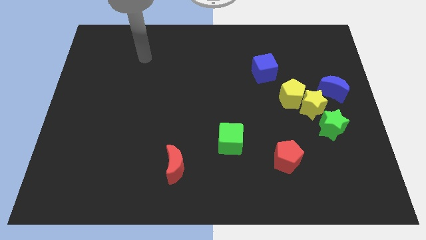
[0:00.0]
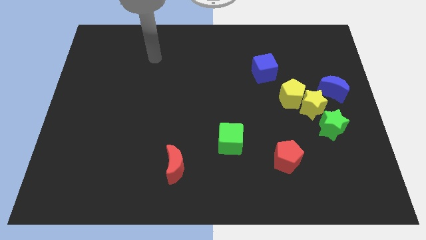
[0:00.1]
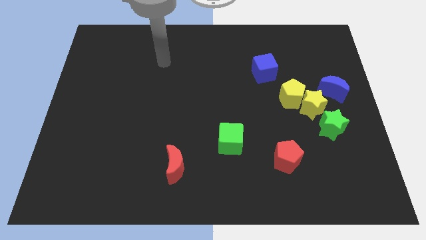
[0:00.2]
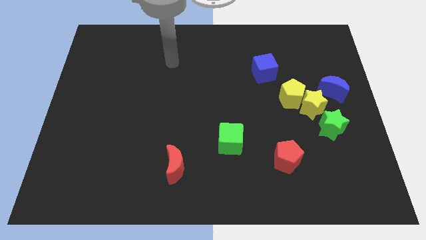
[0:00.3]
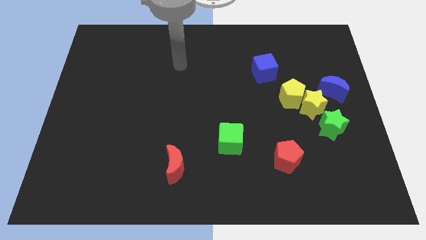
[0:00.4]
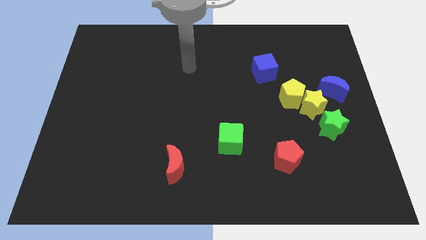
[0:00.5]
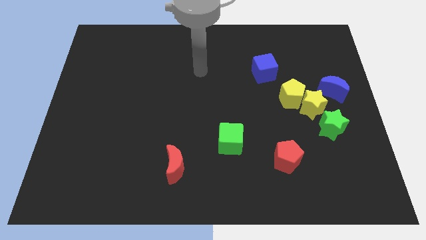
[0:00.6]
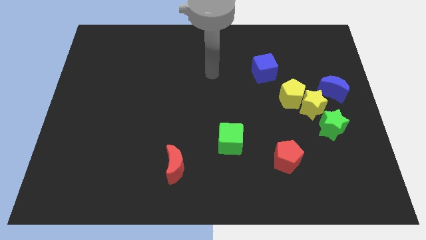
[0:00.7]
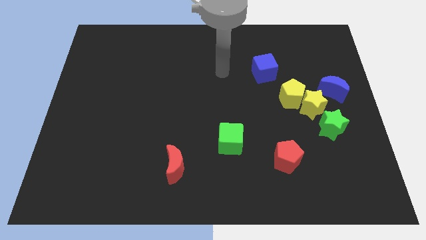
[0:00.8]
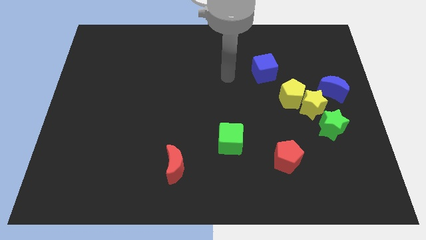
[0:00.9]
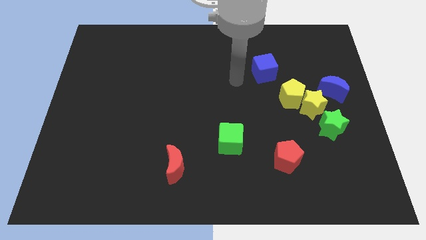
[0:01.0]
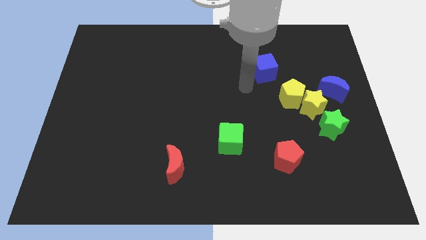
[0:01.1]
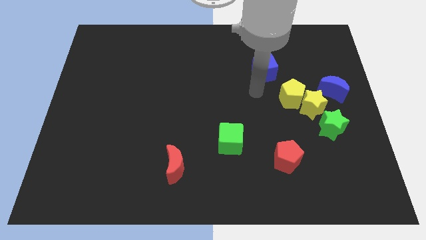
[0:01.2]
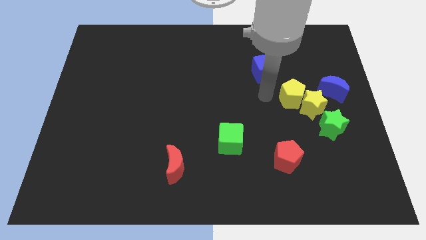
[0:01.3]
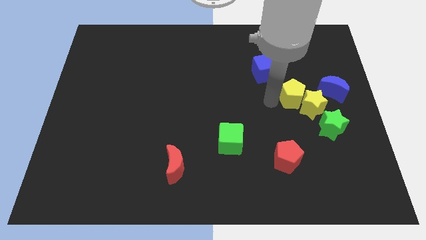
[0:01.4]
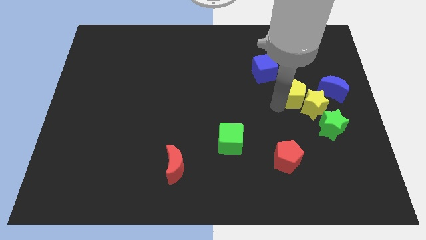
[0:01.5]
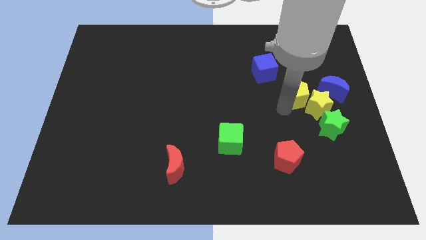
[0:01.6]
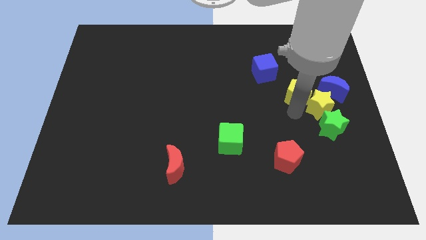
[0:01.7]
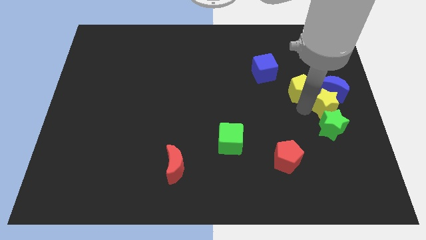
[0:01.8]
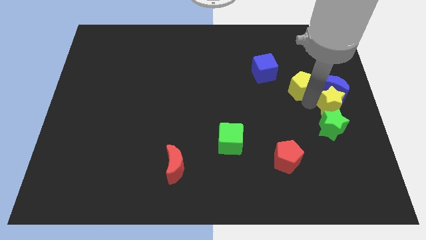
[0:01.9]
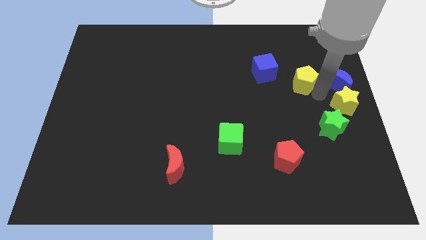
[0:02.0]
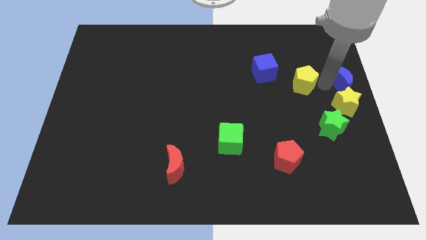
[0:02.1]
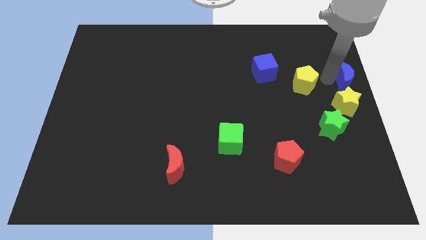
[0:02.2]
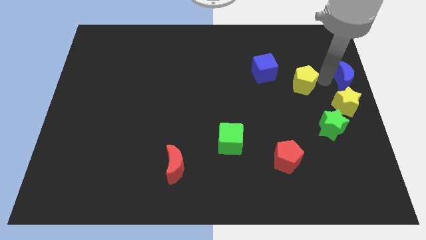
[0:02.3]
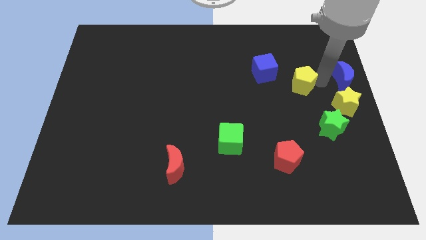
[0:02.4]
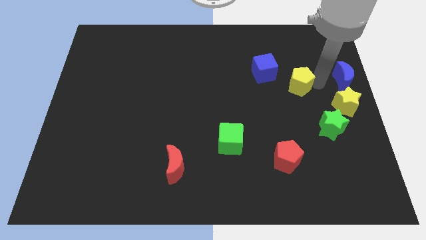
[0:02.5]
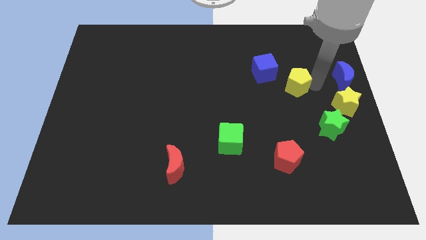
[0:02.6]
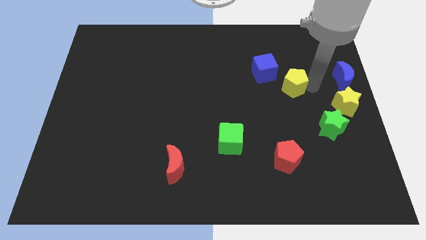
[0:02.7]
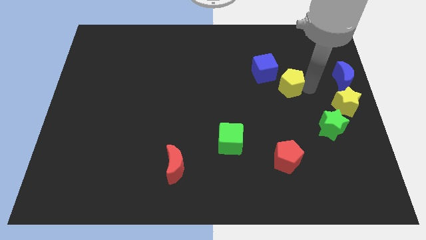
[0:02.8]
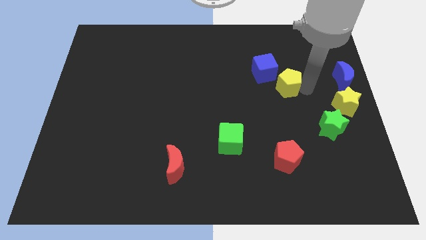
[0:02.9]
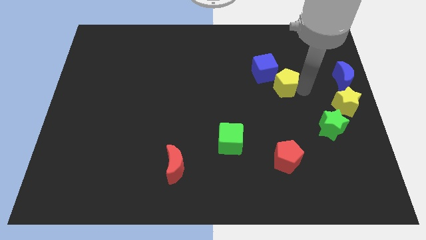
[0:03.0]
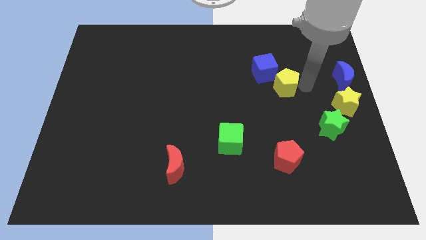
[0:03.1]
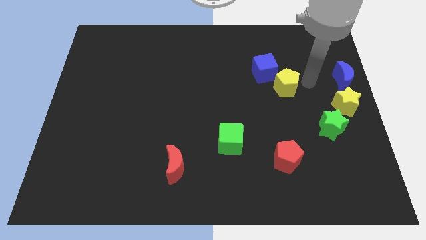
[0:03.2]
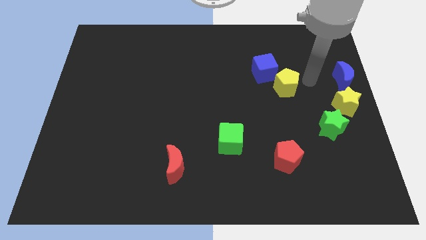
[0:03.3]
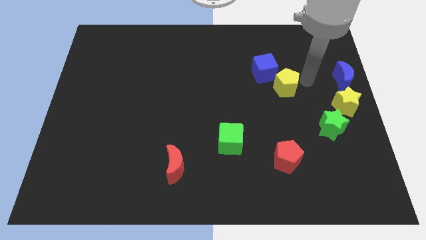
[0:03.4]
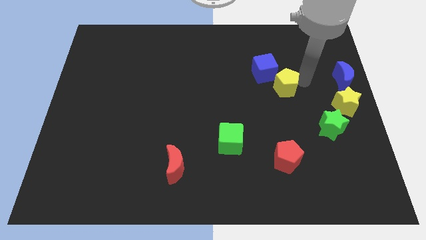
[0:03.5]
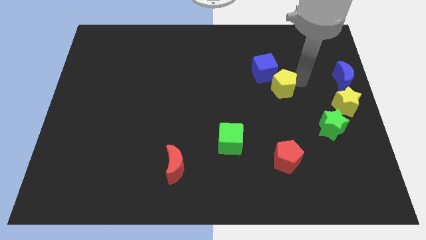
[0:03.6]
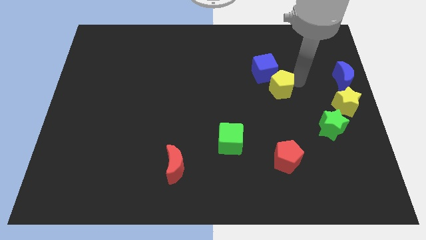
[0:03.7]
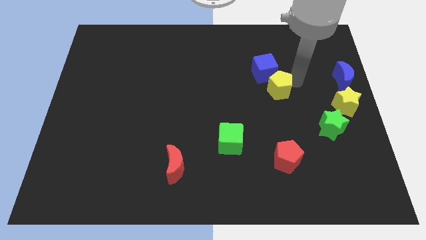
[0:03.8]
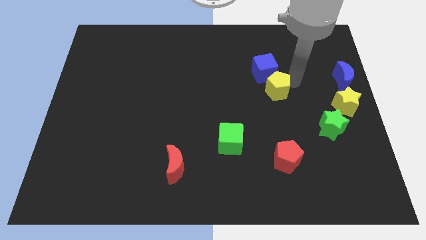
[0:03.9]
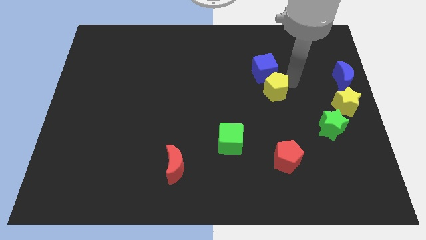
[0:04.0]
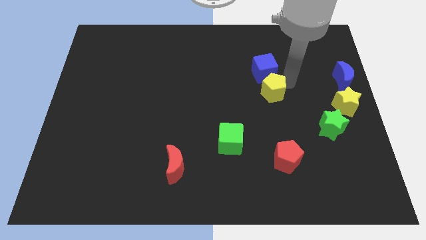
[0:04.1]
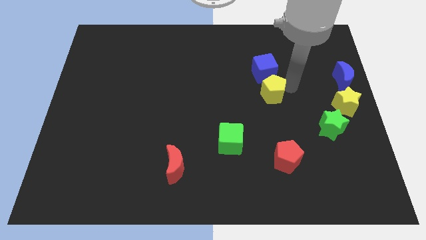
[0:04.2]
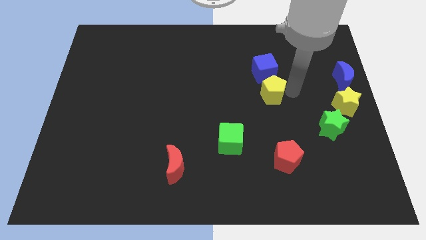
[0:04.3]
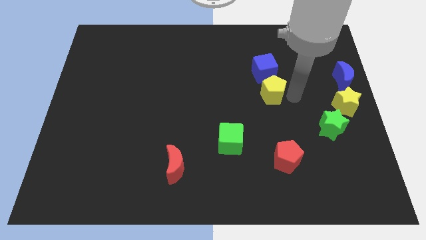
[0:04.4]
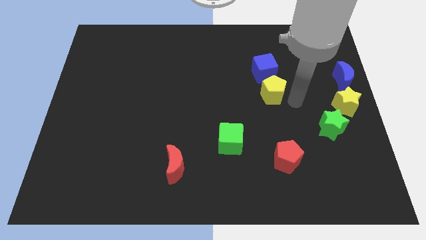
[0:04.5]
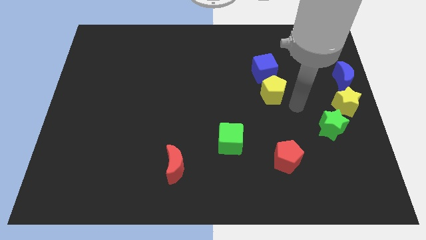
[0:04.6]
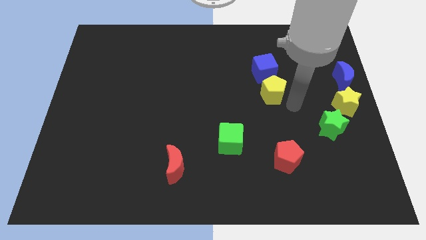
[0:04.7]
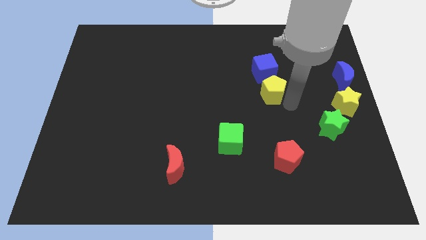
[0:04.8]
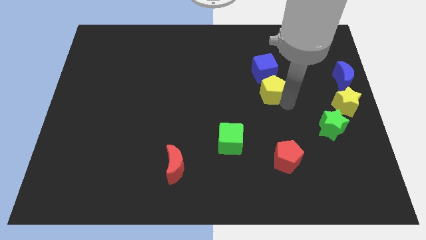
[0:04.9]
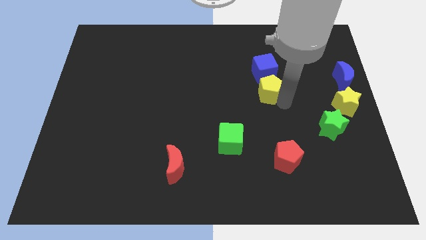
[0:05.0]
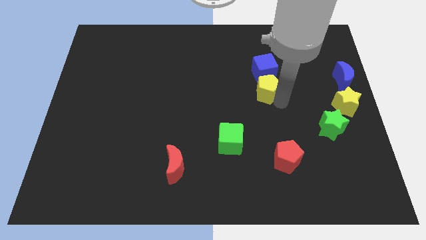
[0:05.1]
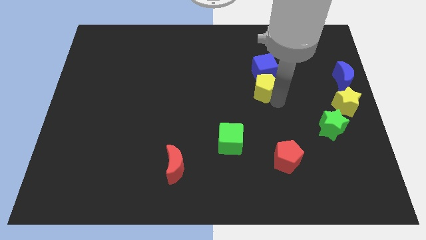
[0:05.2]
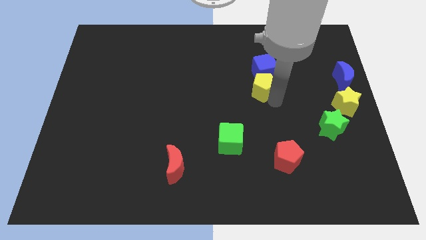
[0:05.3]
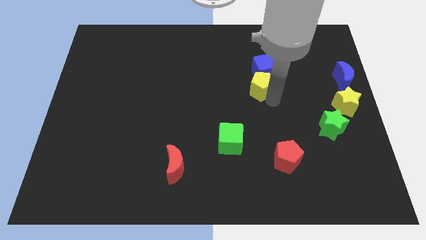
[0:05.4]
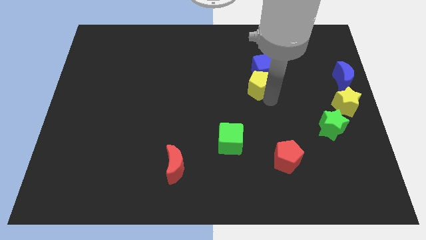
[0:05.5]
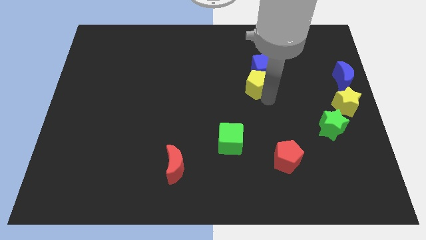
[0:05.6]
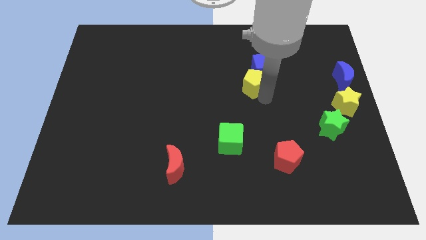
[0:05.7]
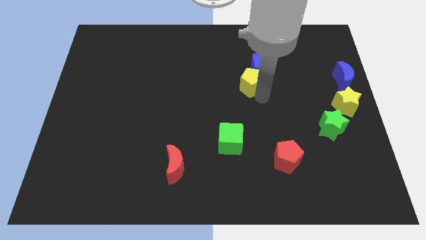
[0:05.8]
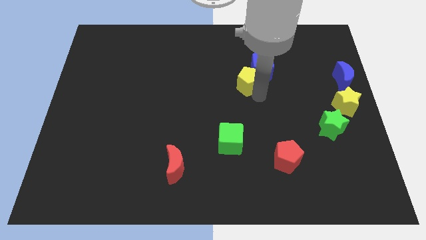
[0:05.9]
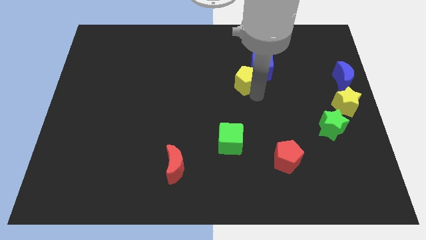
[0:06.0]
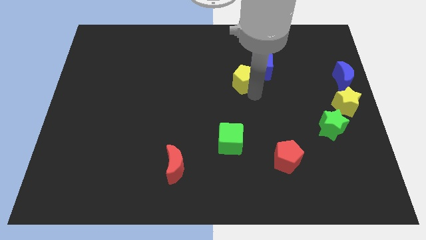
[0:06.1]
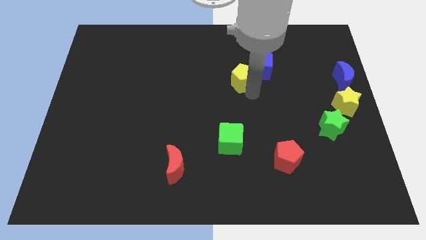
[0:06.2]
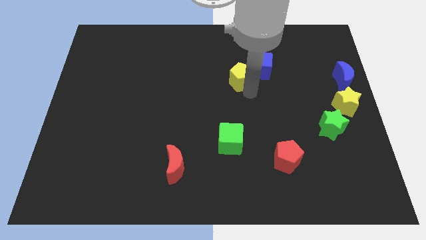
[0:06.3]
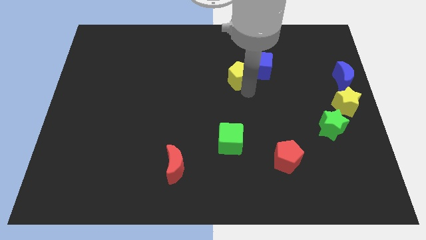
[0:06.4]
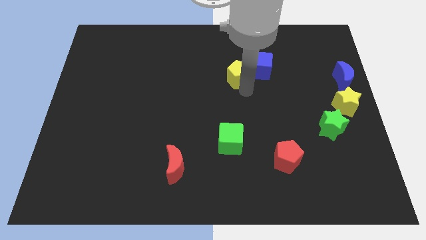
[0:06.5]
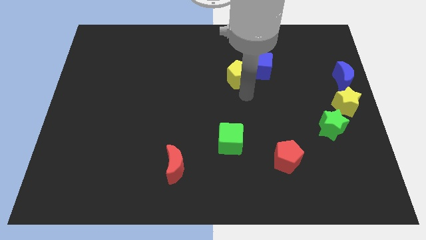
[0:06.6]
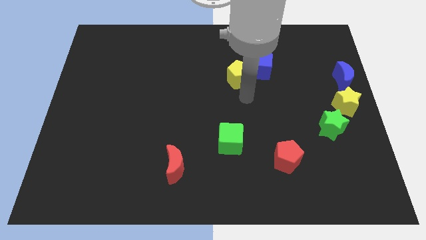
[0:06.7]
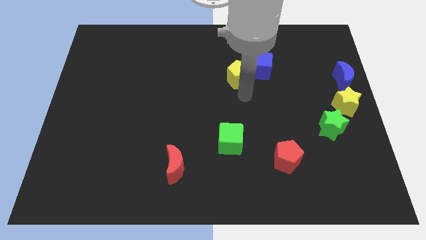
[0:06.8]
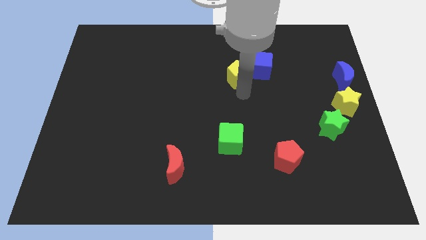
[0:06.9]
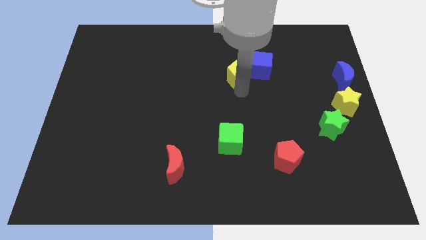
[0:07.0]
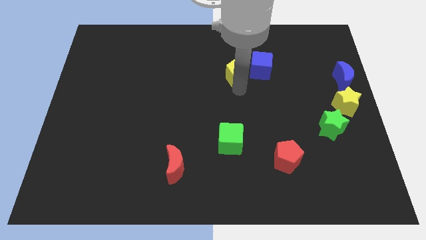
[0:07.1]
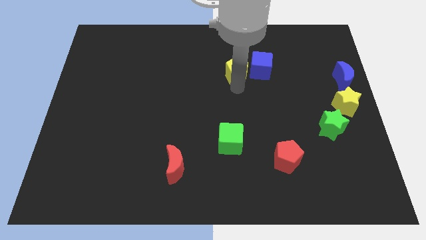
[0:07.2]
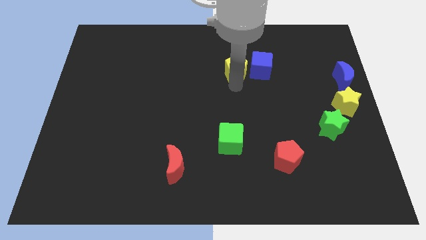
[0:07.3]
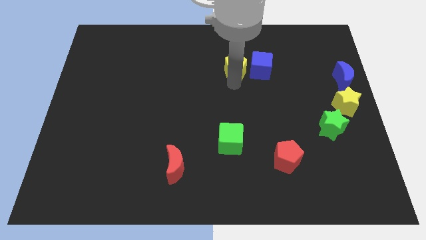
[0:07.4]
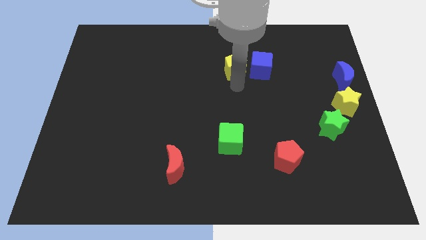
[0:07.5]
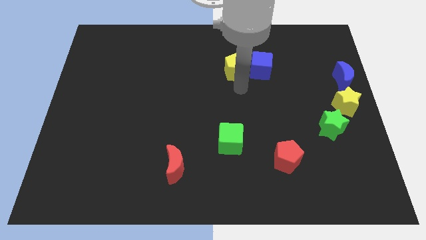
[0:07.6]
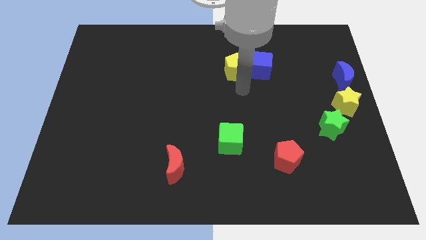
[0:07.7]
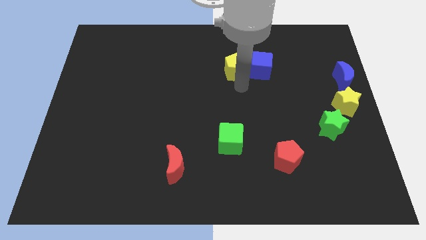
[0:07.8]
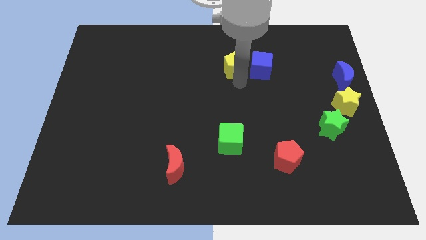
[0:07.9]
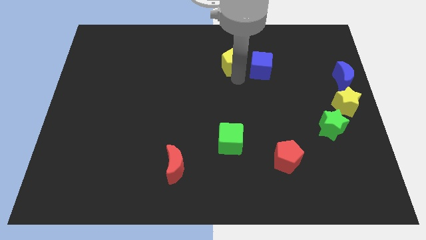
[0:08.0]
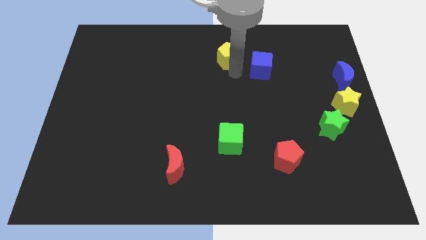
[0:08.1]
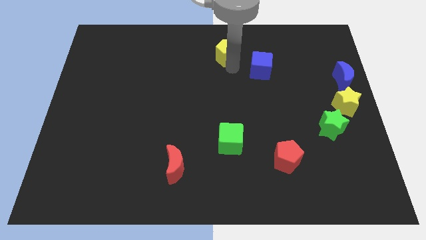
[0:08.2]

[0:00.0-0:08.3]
move the yellow pentagon to the towards your base
